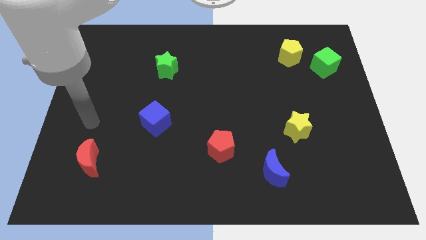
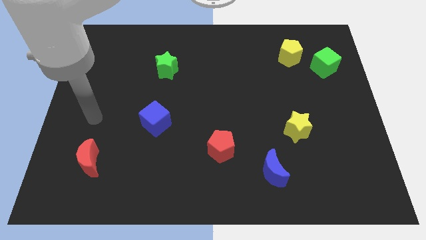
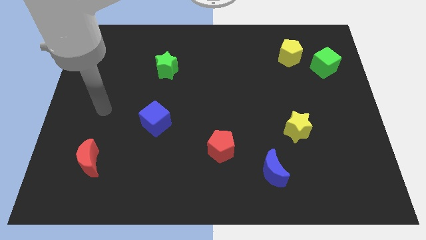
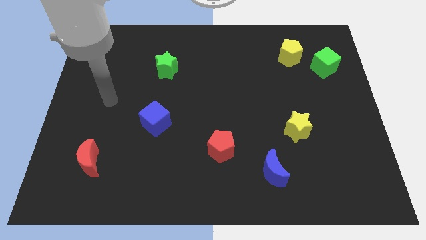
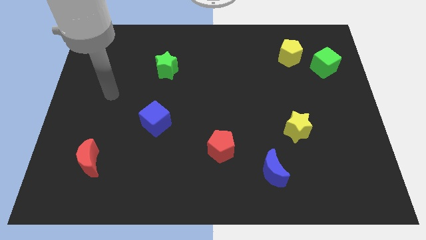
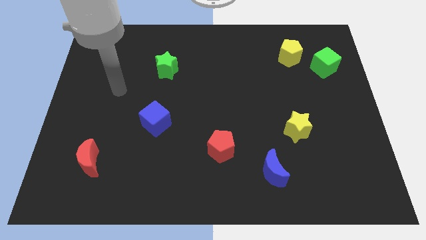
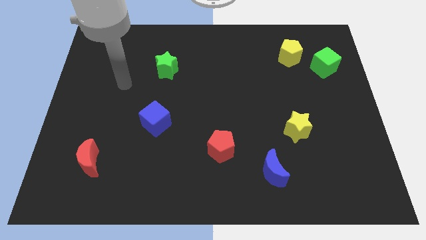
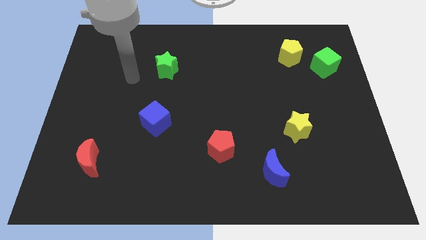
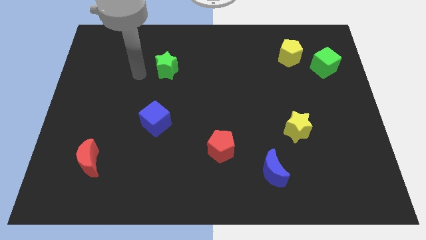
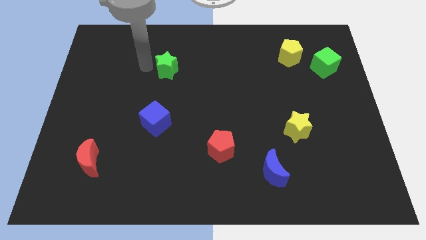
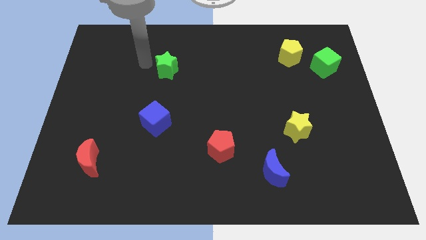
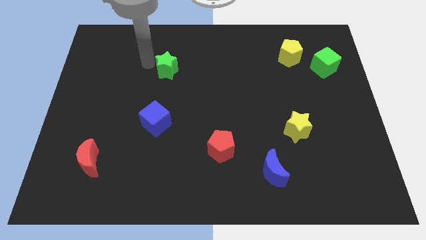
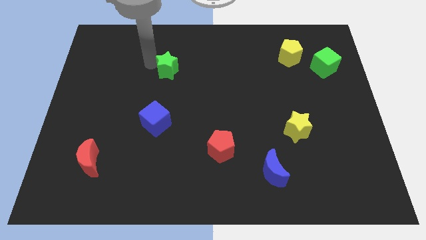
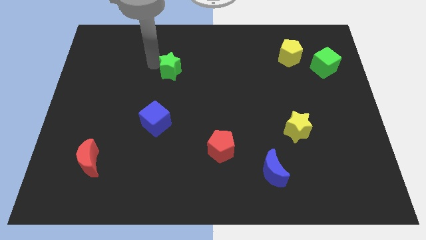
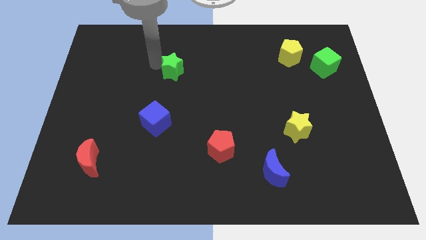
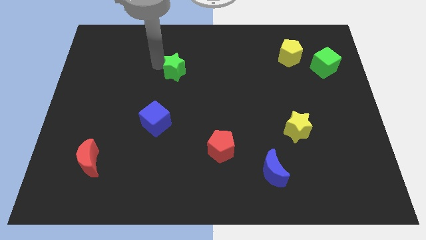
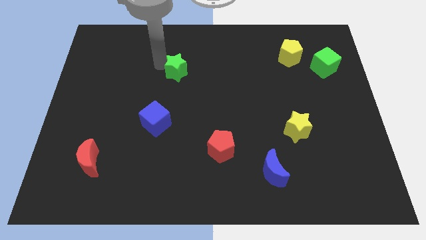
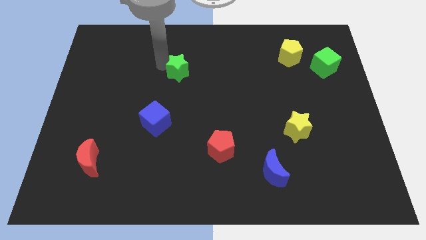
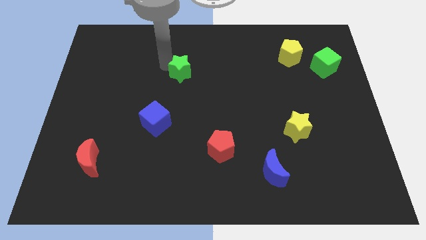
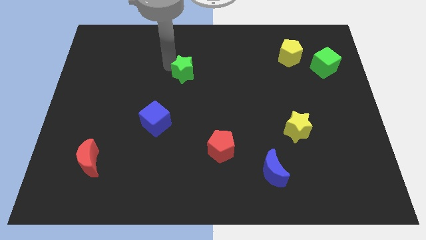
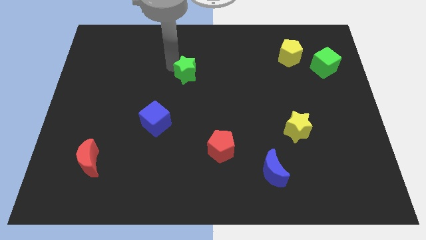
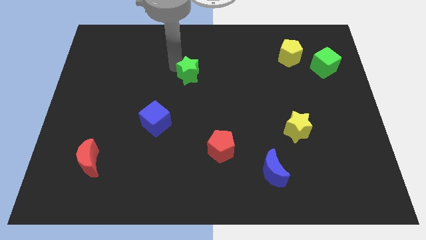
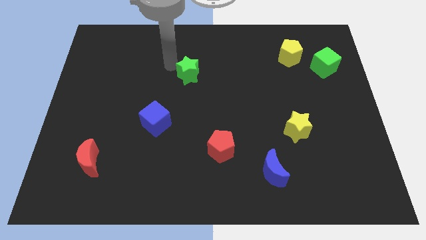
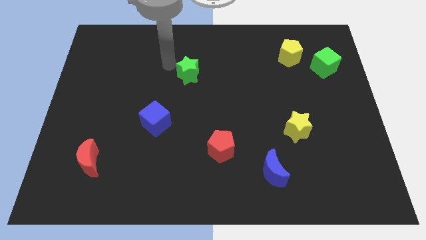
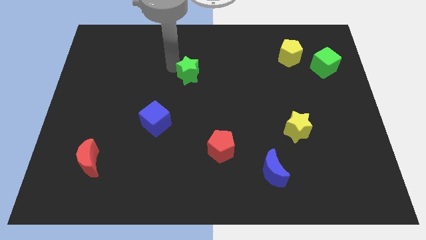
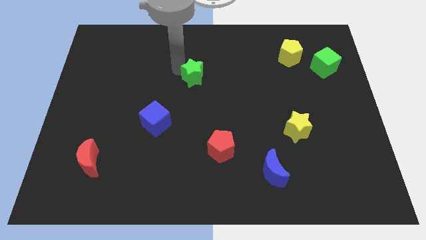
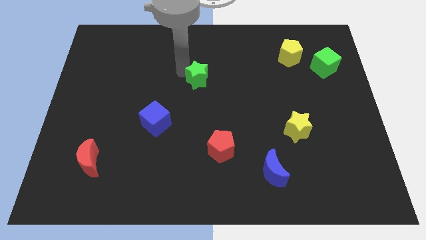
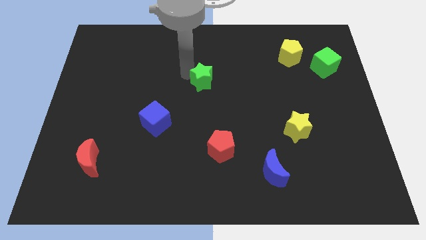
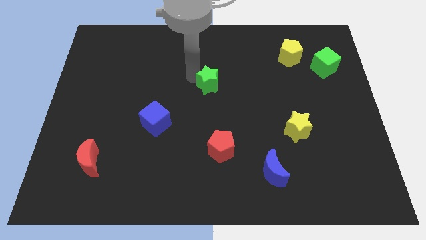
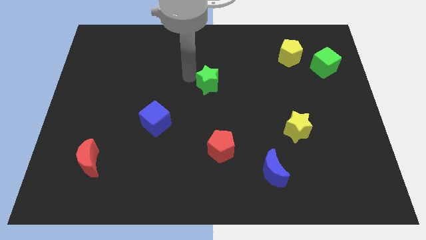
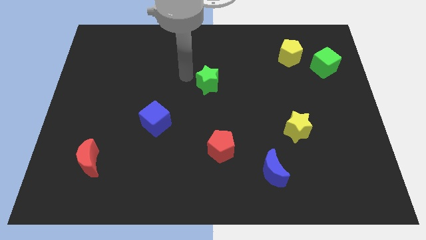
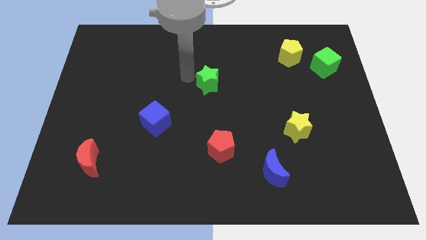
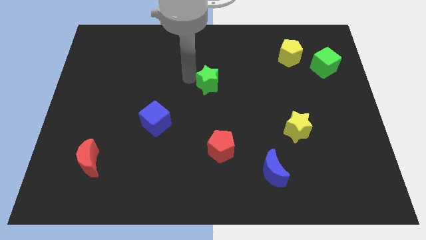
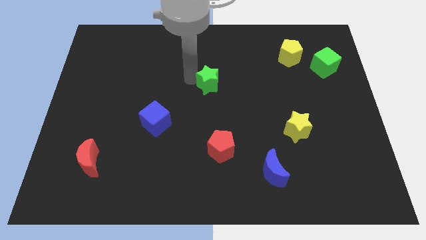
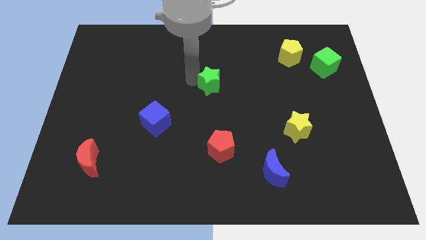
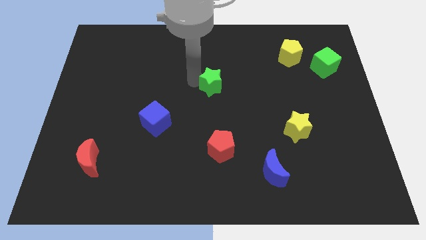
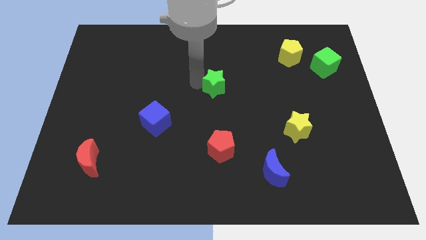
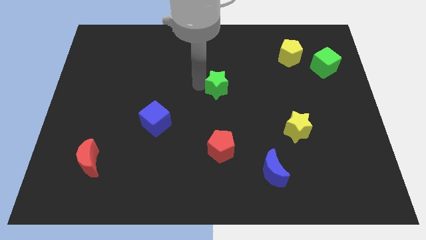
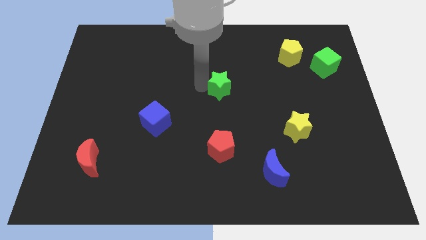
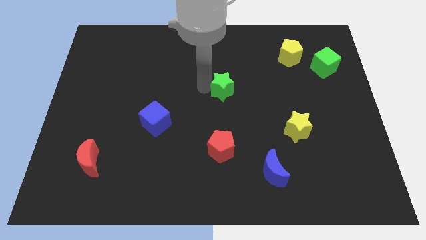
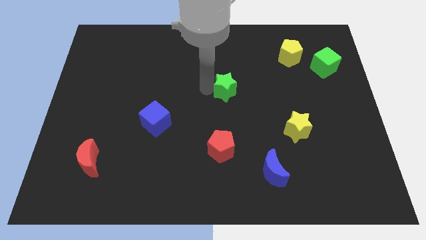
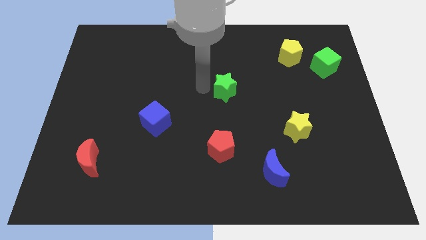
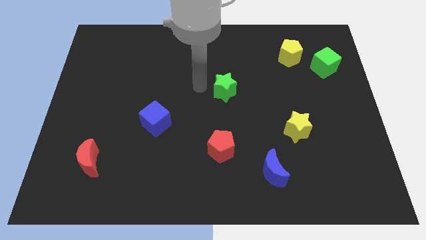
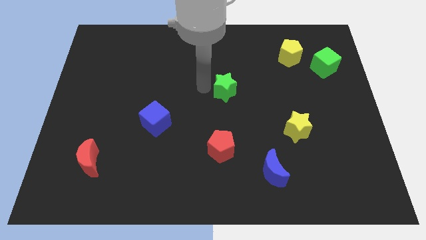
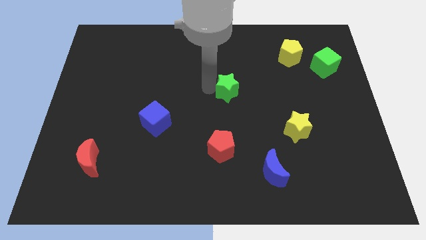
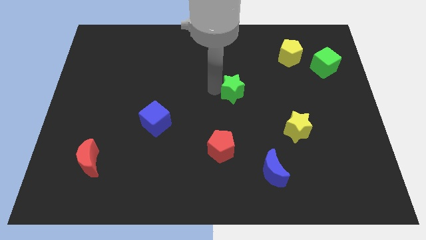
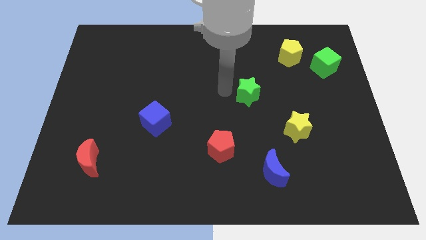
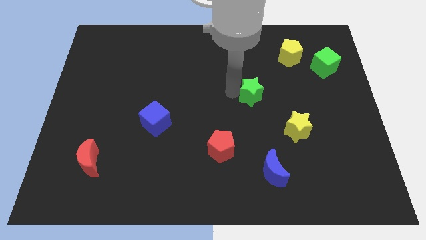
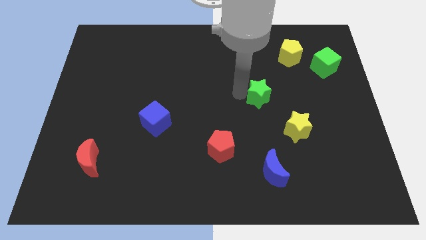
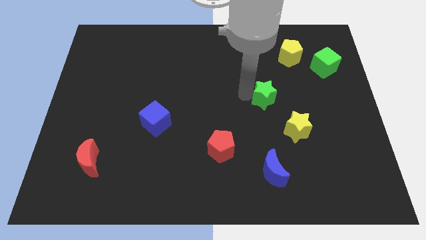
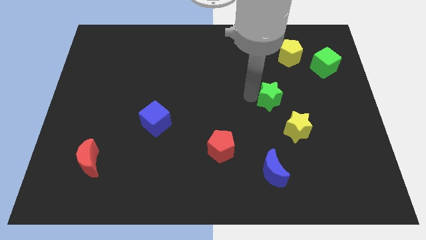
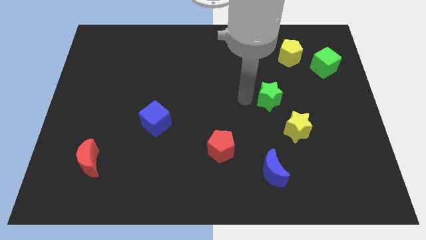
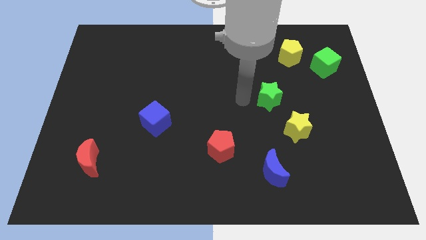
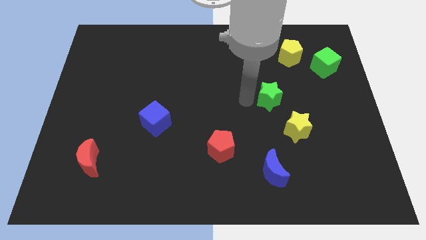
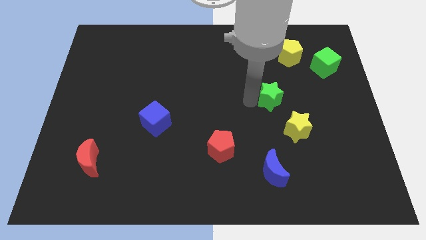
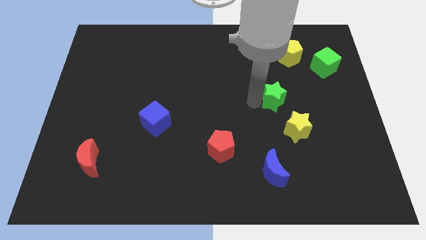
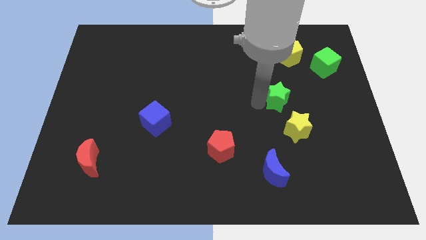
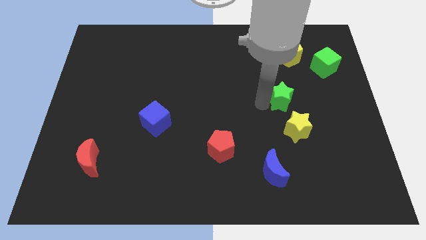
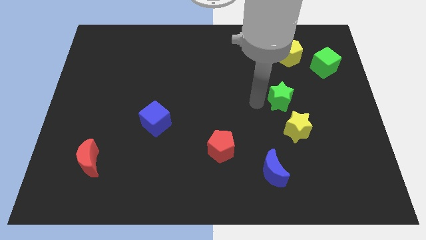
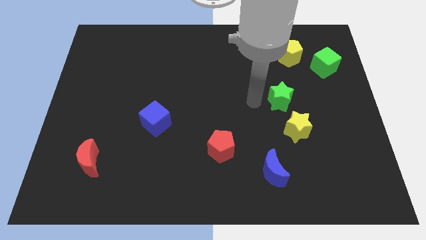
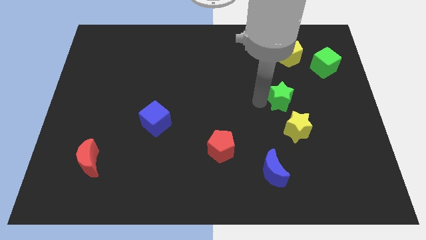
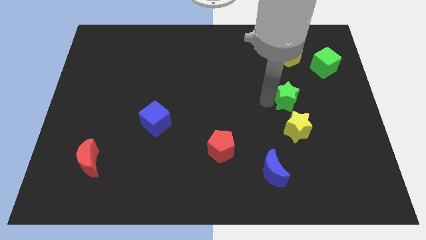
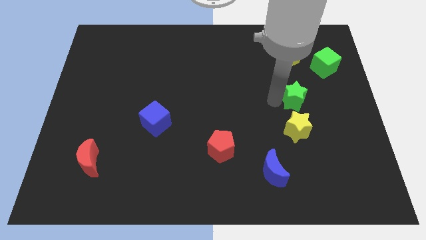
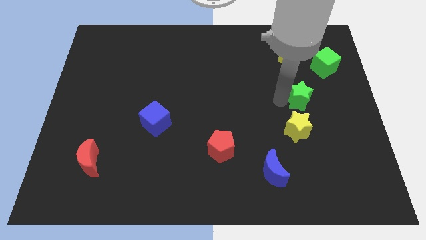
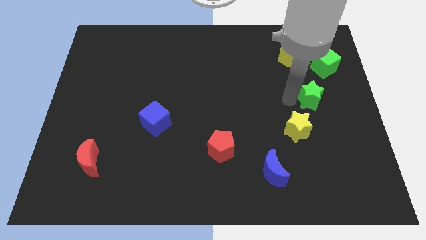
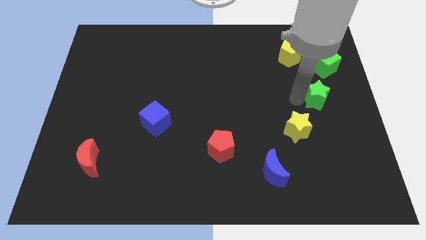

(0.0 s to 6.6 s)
move the green star to the right side
